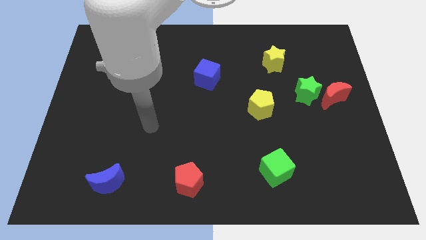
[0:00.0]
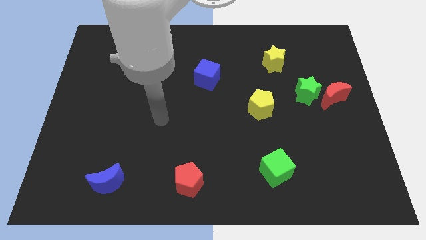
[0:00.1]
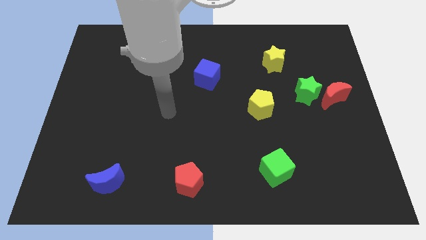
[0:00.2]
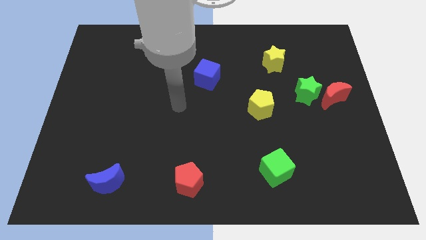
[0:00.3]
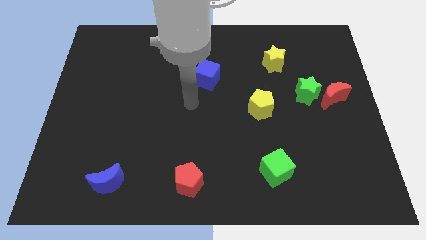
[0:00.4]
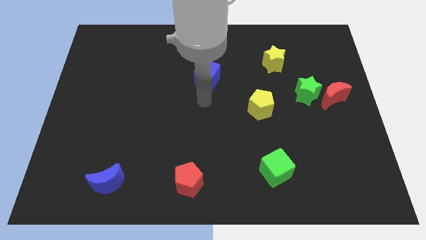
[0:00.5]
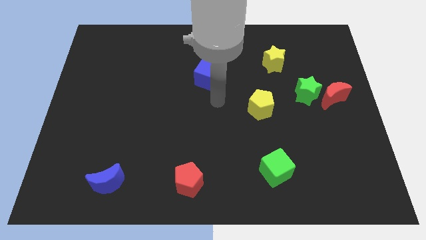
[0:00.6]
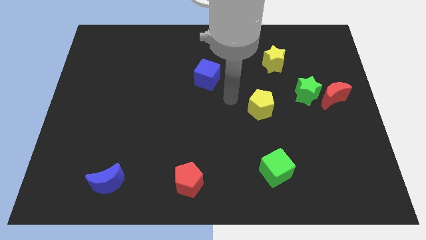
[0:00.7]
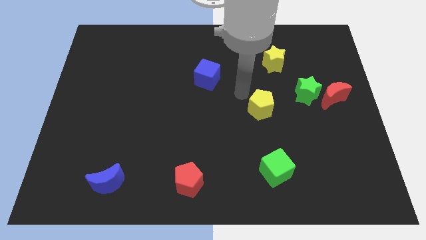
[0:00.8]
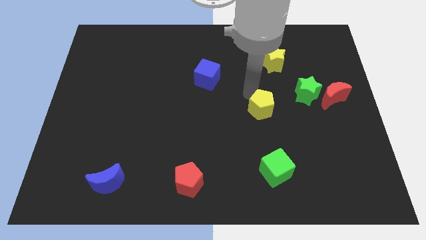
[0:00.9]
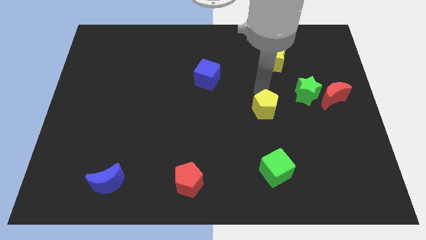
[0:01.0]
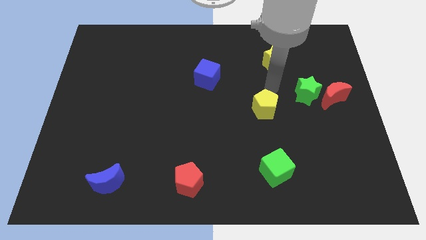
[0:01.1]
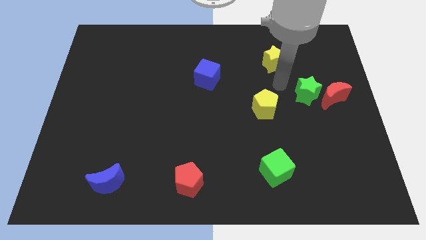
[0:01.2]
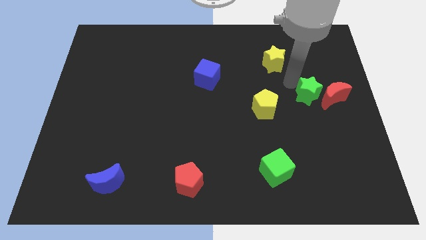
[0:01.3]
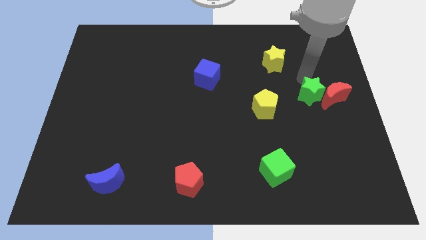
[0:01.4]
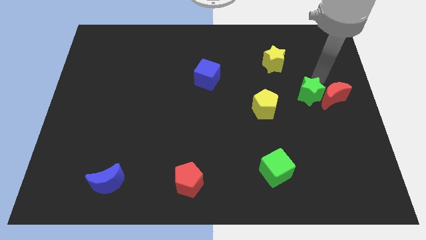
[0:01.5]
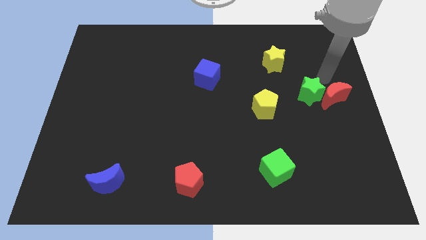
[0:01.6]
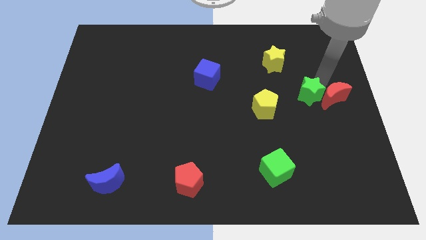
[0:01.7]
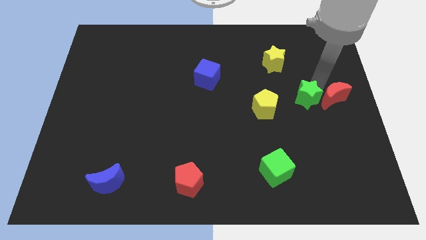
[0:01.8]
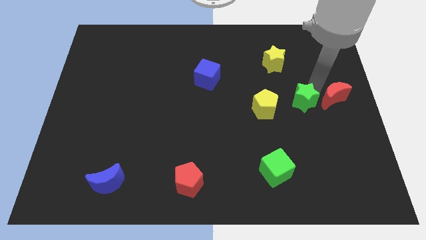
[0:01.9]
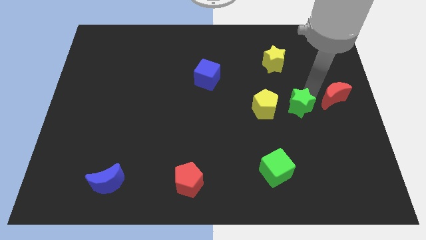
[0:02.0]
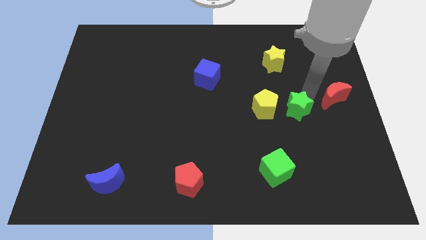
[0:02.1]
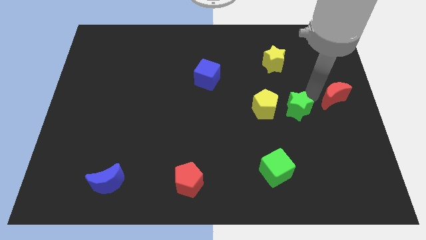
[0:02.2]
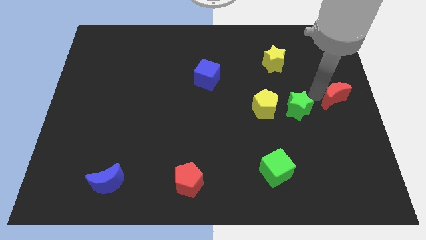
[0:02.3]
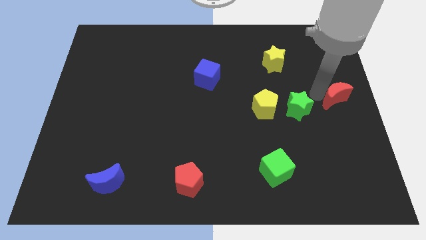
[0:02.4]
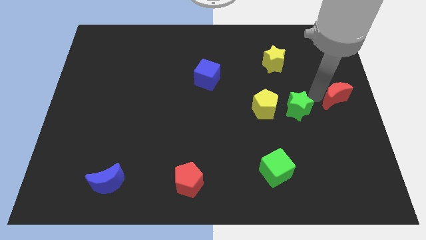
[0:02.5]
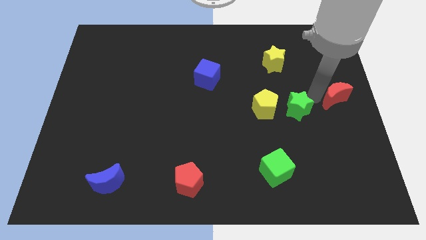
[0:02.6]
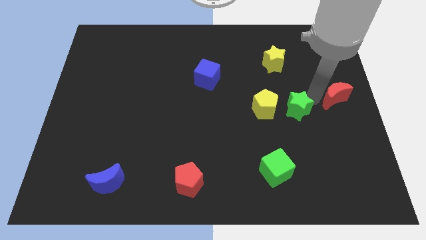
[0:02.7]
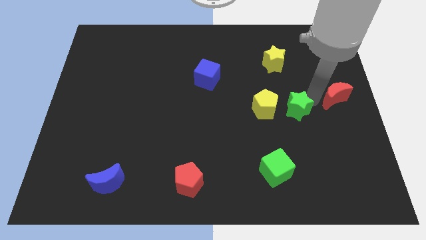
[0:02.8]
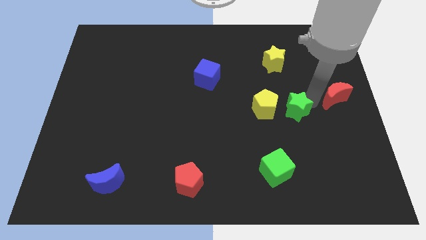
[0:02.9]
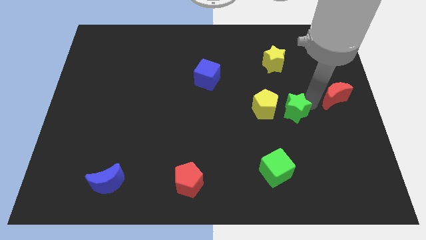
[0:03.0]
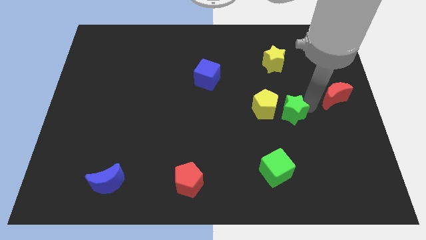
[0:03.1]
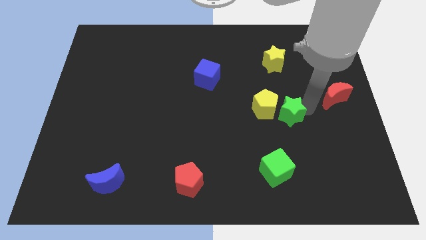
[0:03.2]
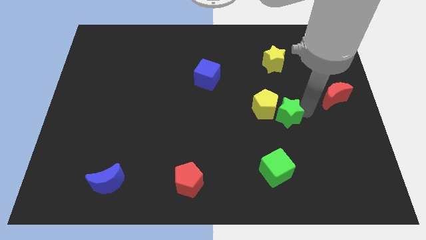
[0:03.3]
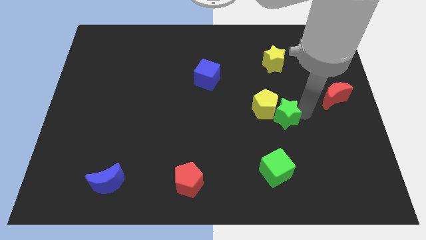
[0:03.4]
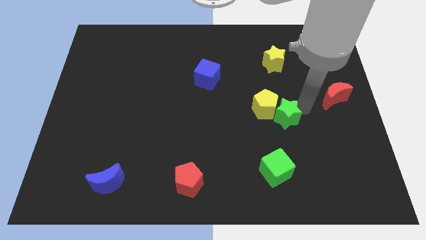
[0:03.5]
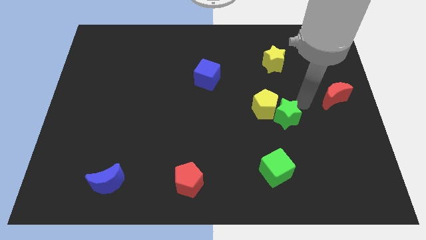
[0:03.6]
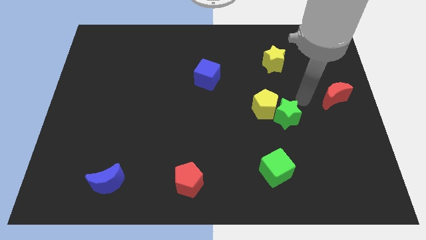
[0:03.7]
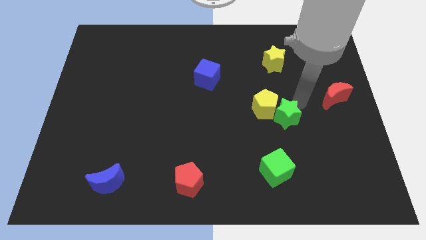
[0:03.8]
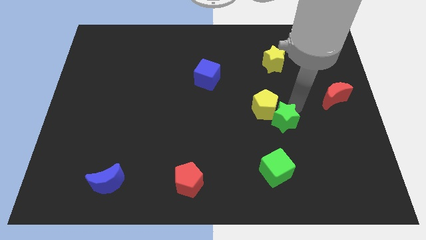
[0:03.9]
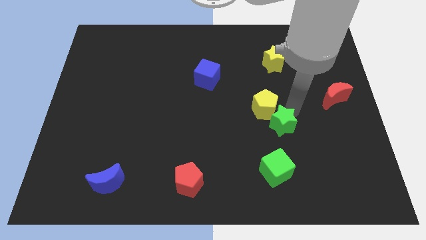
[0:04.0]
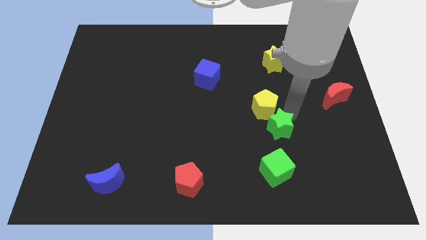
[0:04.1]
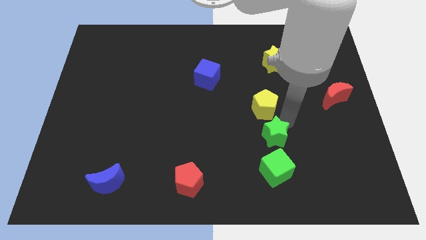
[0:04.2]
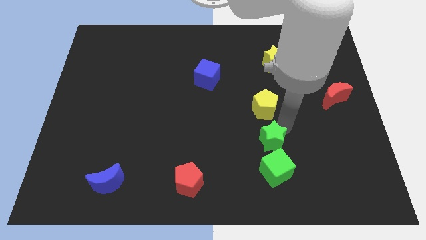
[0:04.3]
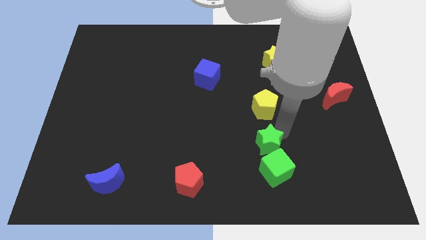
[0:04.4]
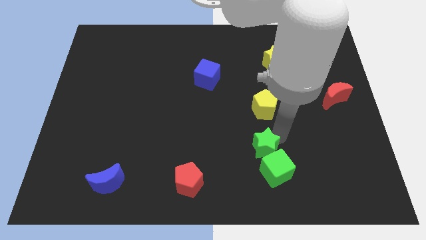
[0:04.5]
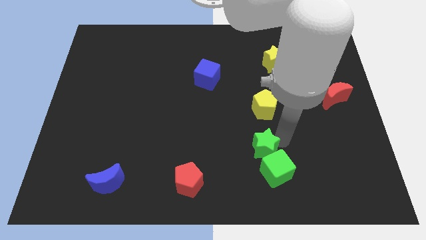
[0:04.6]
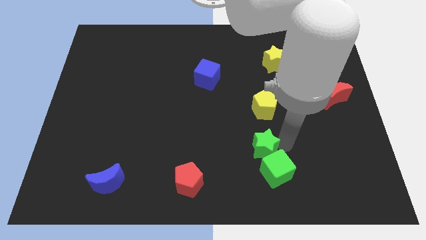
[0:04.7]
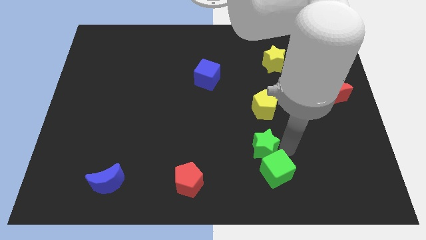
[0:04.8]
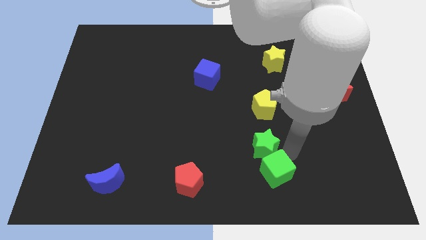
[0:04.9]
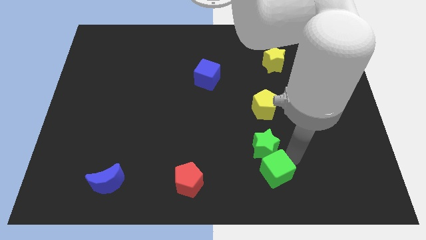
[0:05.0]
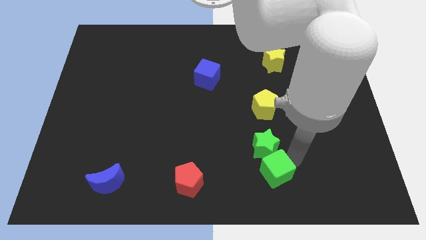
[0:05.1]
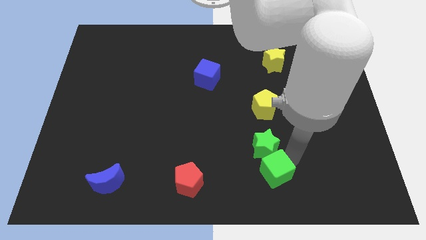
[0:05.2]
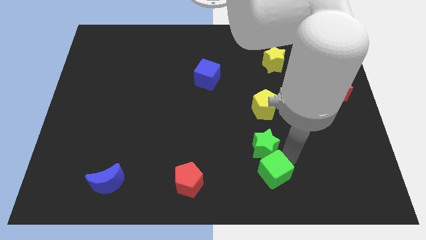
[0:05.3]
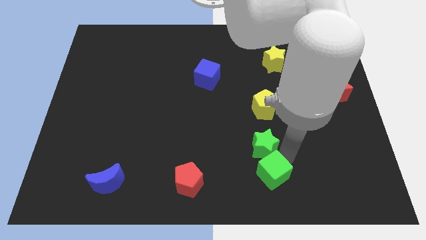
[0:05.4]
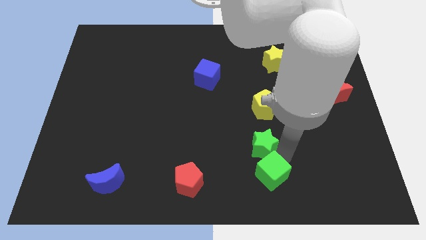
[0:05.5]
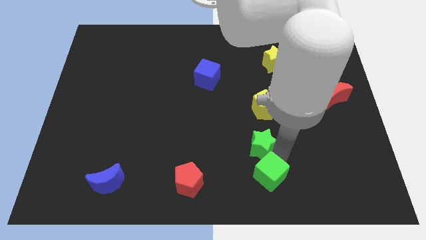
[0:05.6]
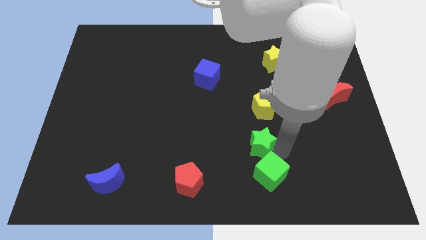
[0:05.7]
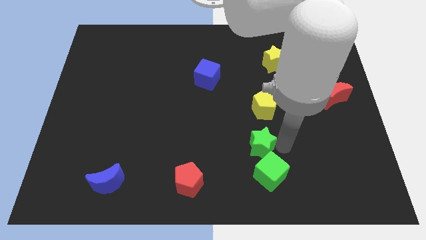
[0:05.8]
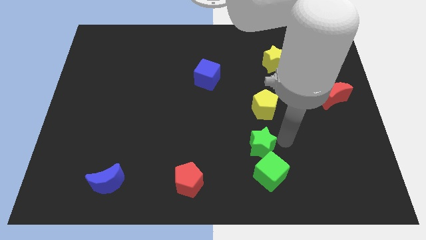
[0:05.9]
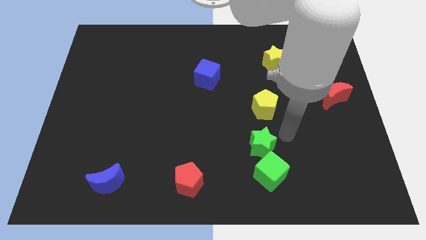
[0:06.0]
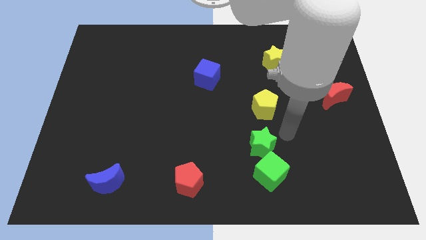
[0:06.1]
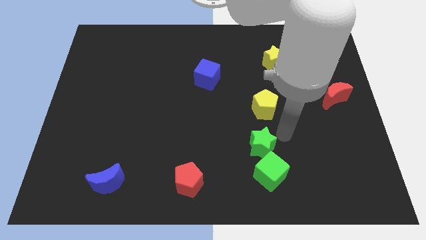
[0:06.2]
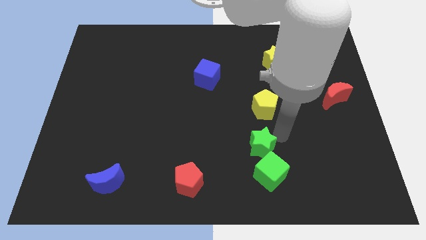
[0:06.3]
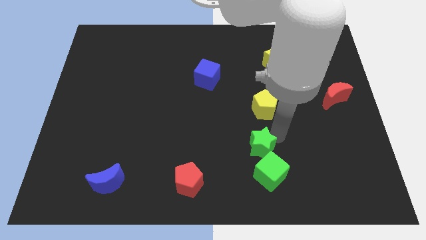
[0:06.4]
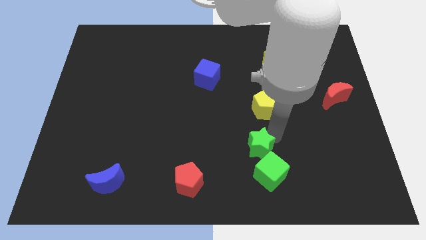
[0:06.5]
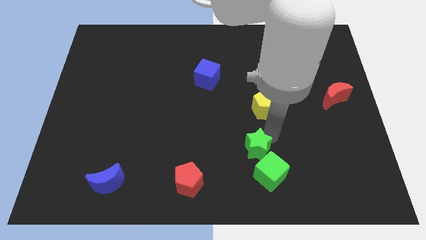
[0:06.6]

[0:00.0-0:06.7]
slide the green star diagonally downwards and to the left

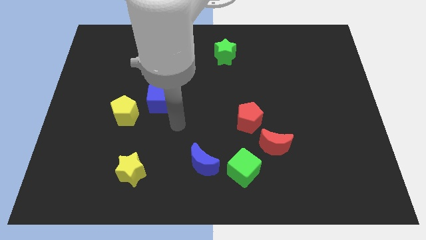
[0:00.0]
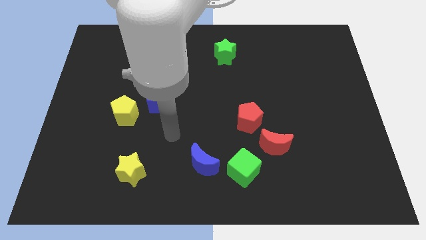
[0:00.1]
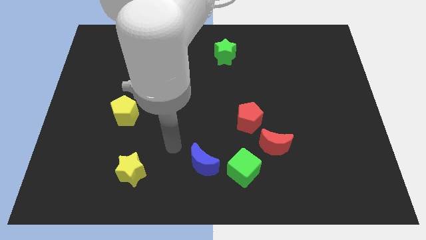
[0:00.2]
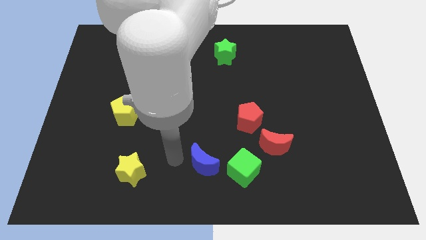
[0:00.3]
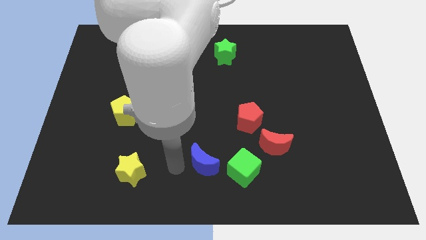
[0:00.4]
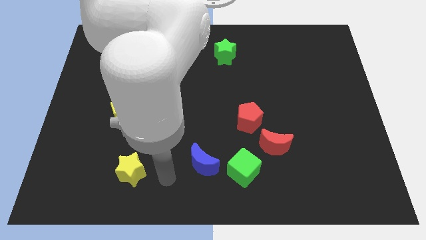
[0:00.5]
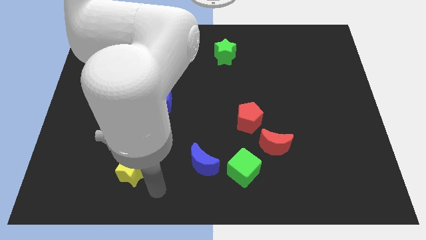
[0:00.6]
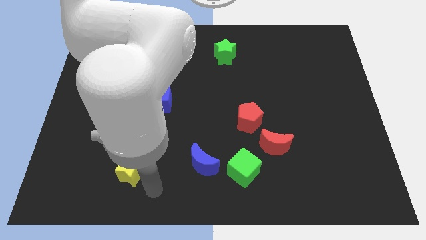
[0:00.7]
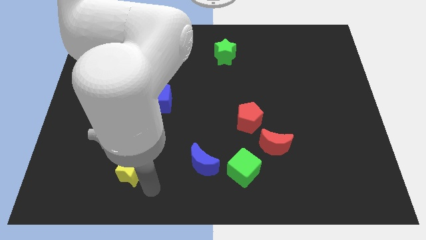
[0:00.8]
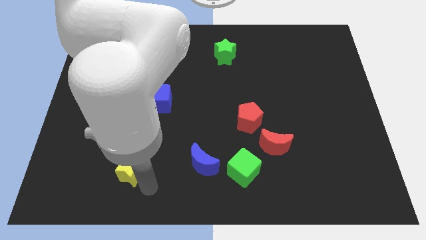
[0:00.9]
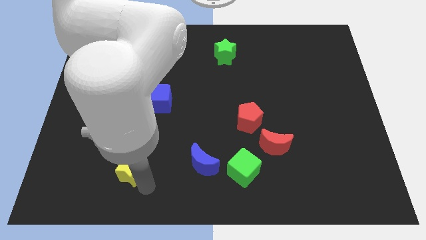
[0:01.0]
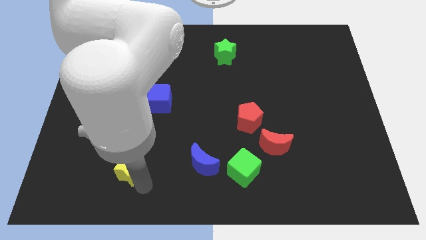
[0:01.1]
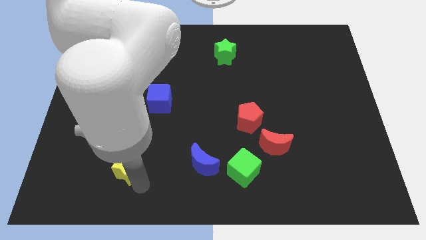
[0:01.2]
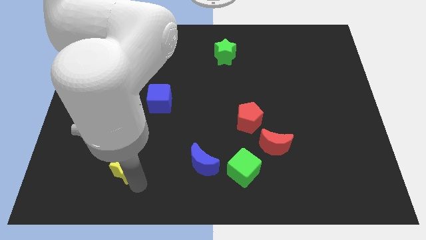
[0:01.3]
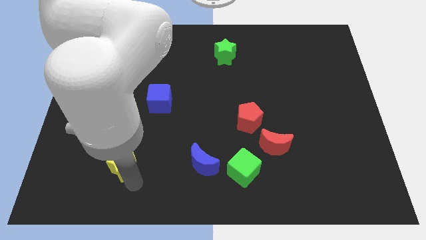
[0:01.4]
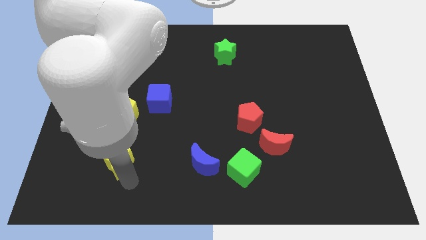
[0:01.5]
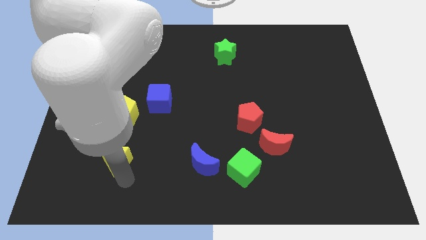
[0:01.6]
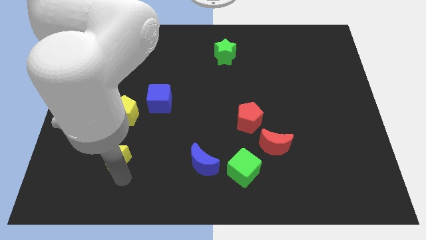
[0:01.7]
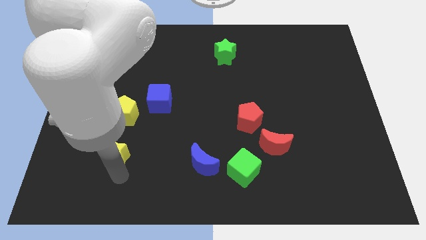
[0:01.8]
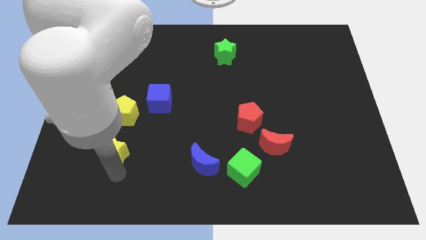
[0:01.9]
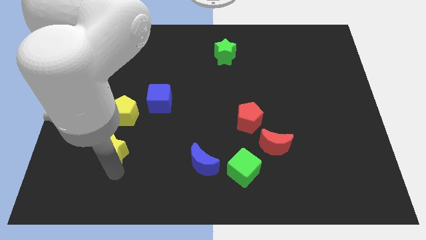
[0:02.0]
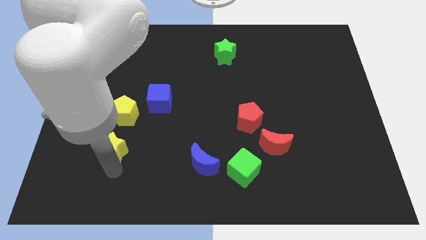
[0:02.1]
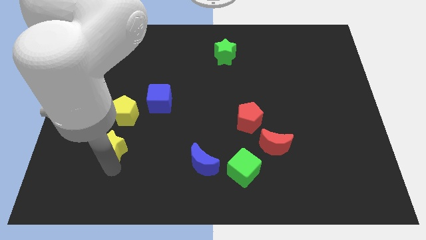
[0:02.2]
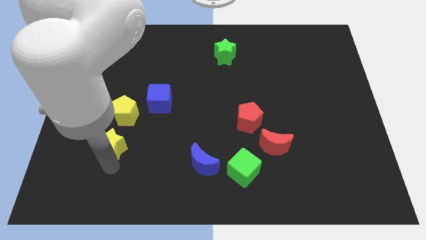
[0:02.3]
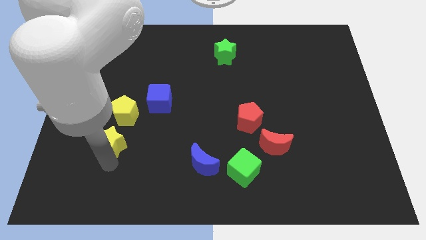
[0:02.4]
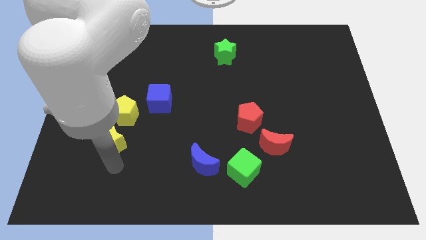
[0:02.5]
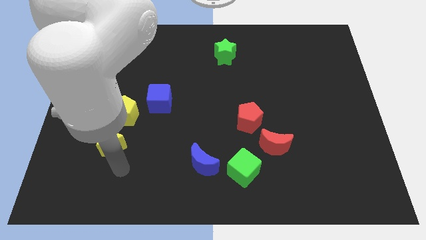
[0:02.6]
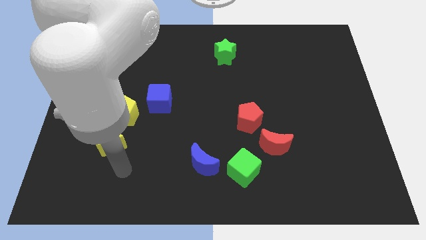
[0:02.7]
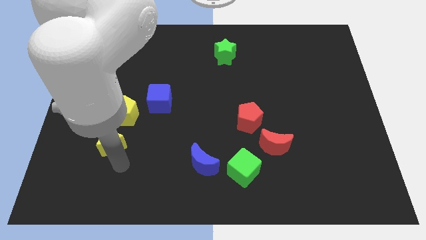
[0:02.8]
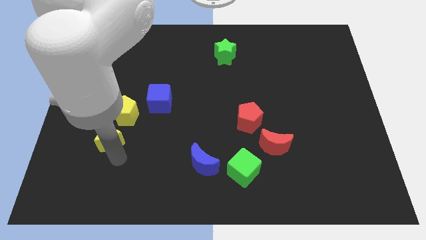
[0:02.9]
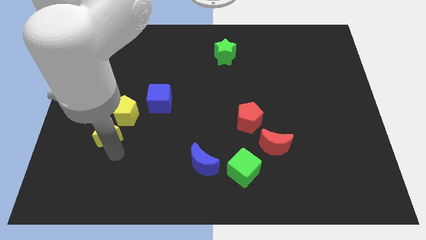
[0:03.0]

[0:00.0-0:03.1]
slide the yellow star upwards somewhat
